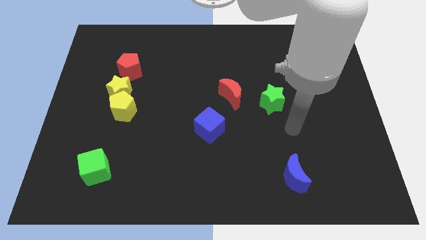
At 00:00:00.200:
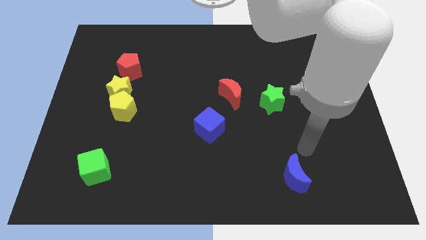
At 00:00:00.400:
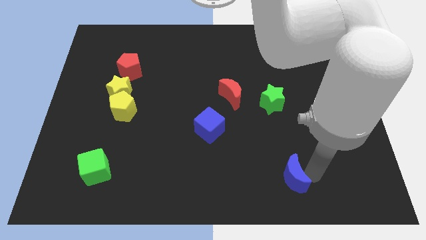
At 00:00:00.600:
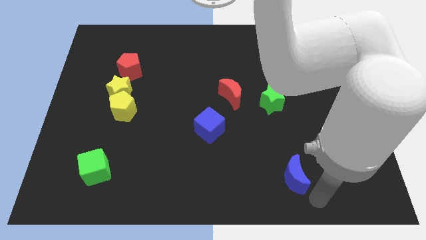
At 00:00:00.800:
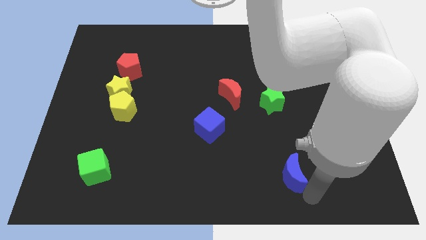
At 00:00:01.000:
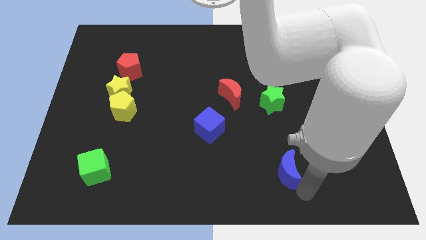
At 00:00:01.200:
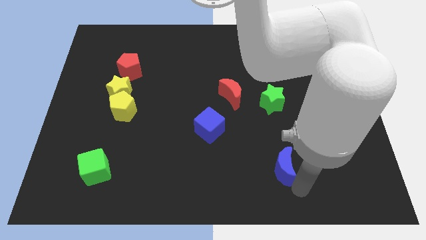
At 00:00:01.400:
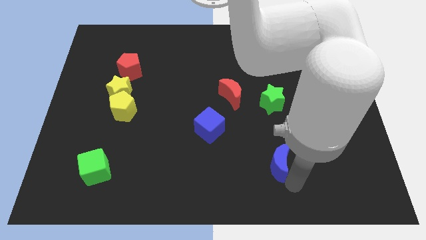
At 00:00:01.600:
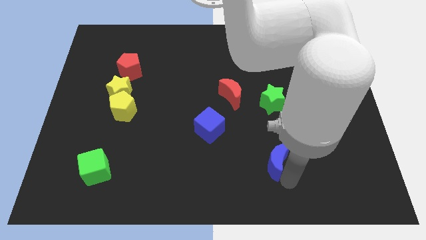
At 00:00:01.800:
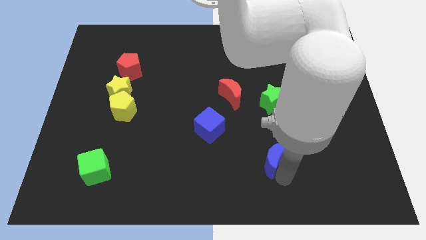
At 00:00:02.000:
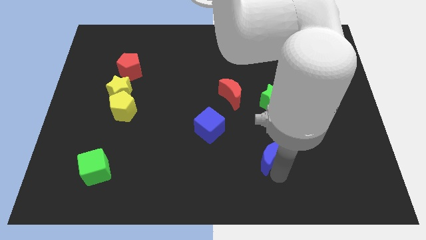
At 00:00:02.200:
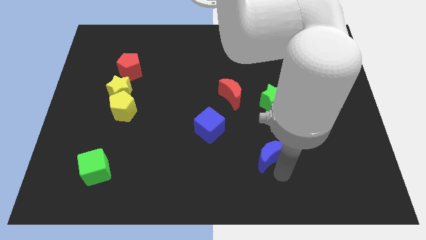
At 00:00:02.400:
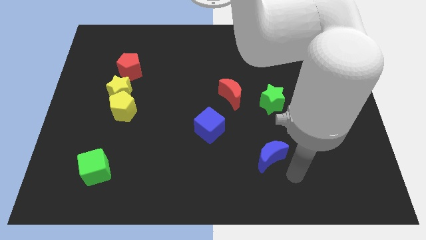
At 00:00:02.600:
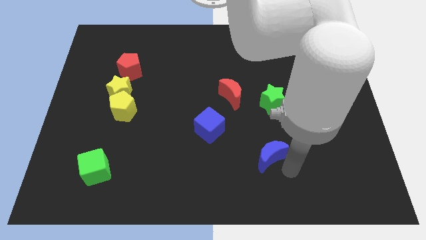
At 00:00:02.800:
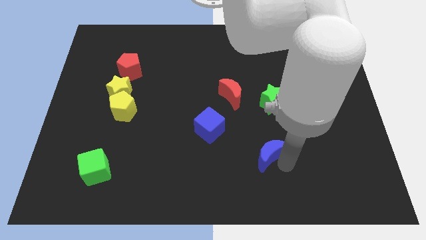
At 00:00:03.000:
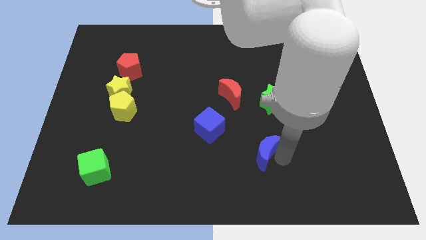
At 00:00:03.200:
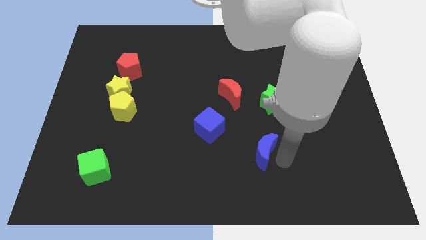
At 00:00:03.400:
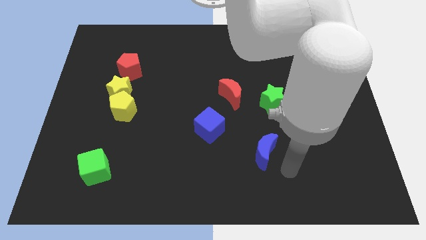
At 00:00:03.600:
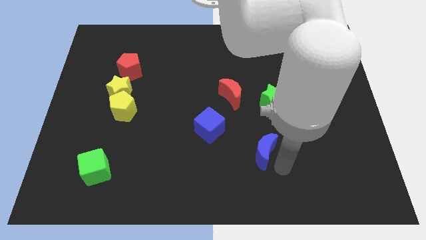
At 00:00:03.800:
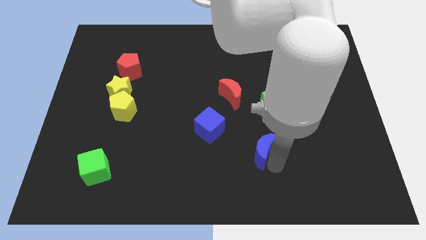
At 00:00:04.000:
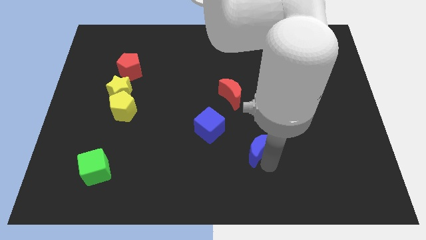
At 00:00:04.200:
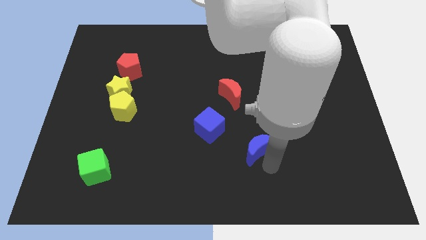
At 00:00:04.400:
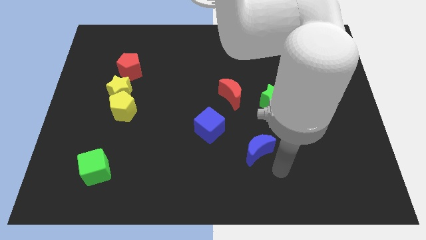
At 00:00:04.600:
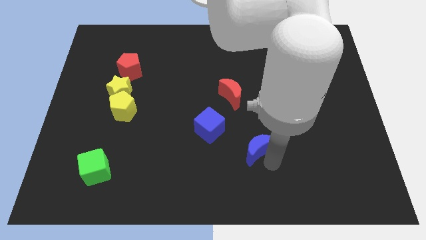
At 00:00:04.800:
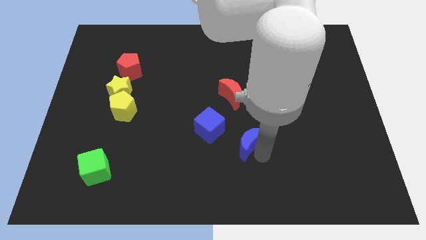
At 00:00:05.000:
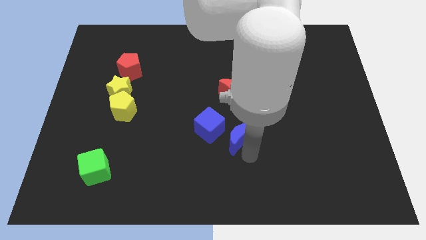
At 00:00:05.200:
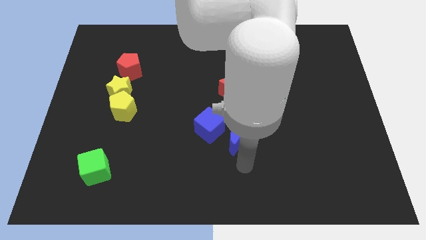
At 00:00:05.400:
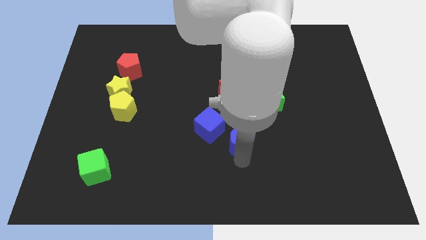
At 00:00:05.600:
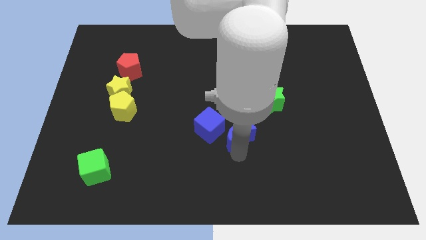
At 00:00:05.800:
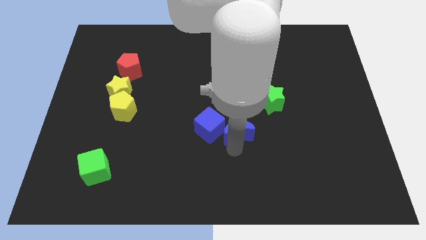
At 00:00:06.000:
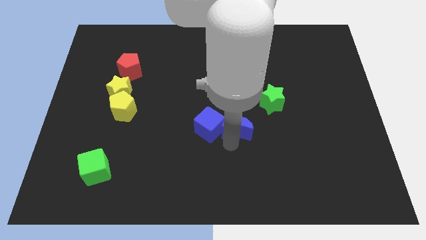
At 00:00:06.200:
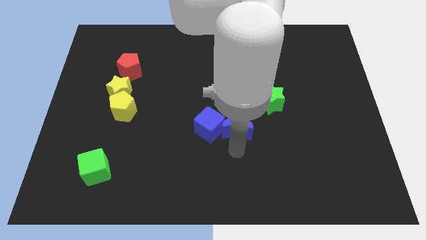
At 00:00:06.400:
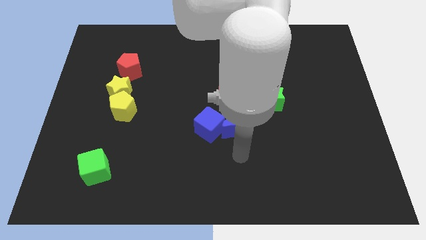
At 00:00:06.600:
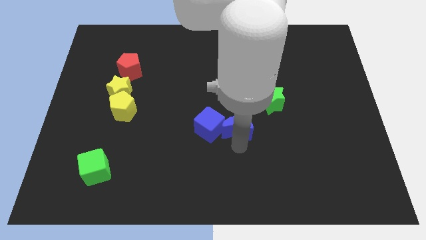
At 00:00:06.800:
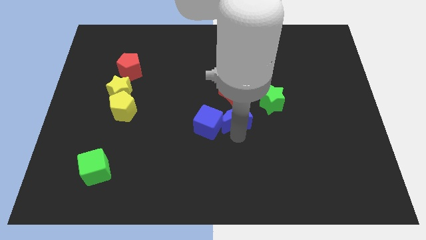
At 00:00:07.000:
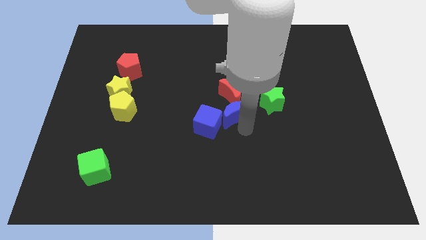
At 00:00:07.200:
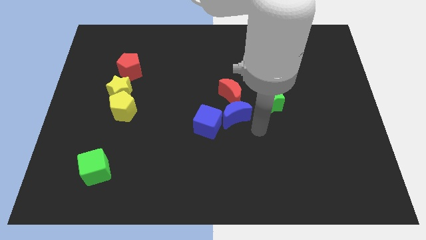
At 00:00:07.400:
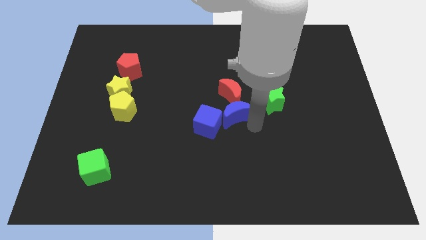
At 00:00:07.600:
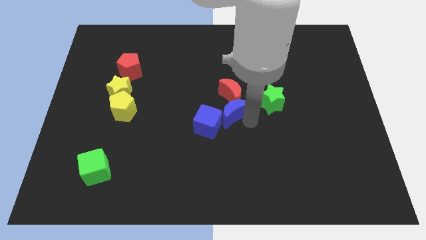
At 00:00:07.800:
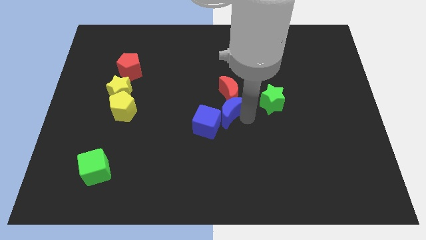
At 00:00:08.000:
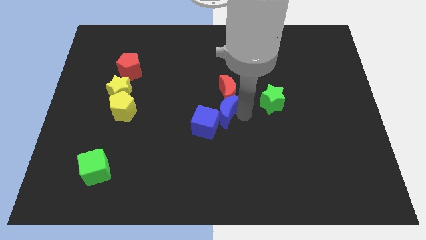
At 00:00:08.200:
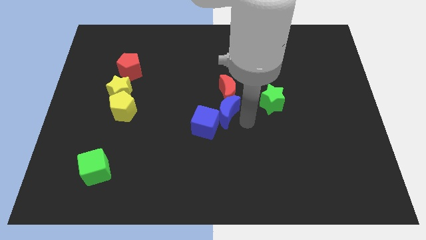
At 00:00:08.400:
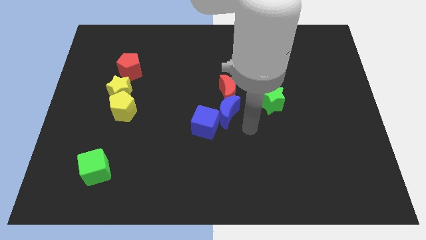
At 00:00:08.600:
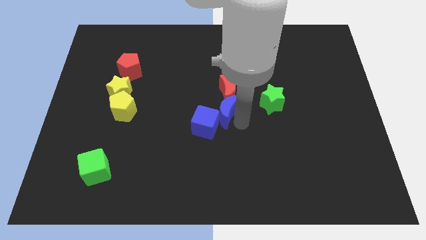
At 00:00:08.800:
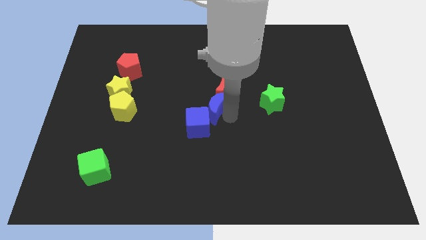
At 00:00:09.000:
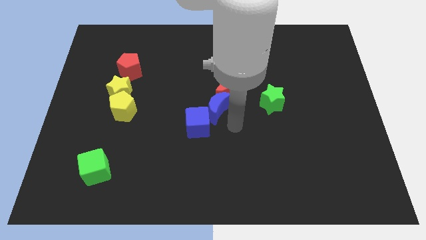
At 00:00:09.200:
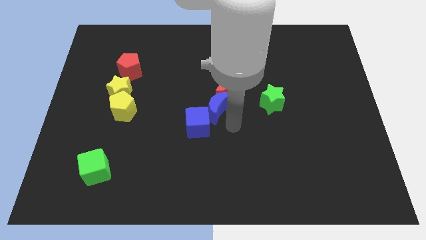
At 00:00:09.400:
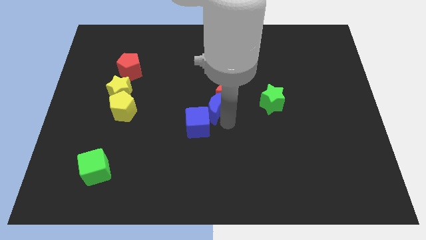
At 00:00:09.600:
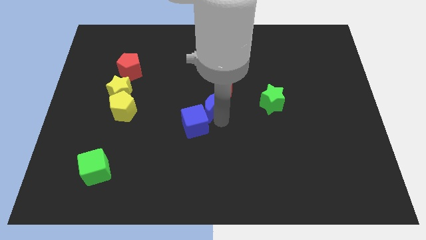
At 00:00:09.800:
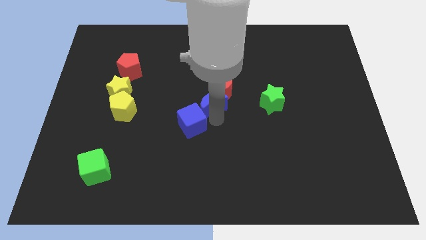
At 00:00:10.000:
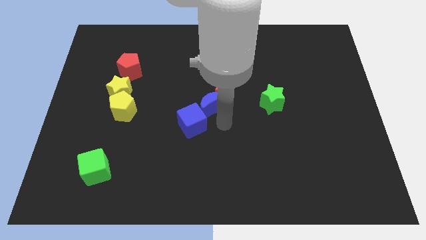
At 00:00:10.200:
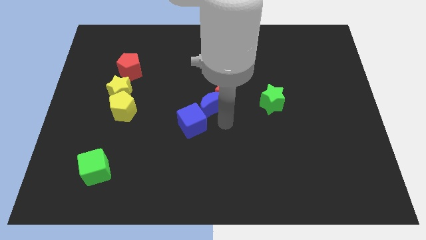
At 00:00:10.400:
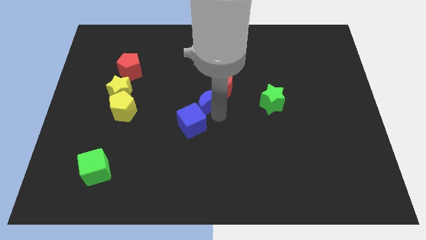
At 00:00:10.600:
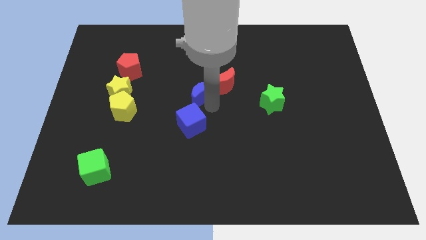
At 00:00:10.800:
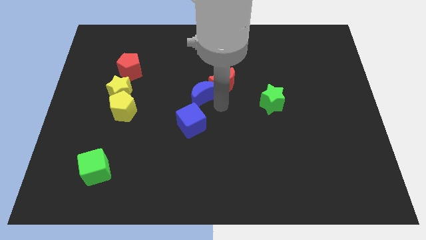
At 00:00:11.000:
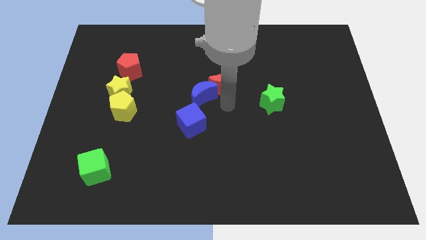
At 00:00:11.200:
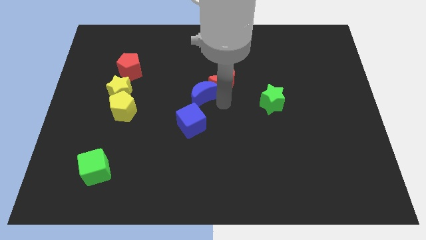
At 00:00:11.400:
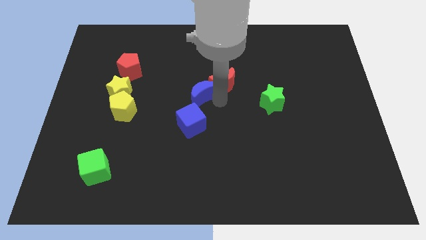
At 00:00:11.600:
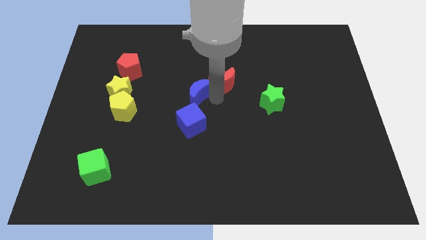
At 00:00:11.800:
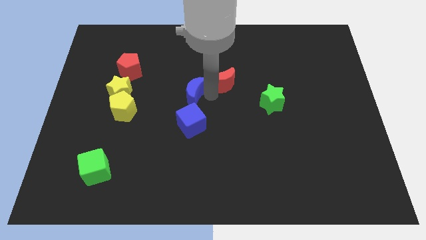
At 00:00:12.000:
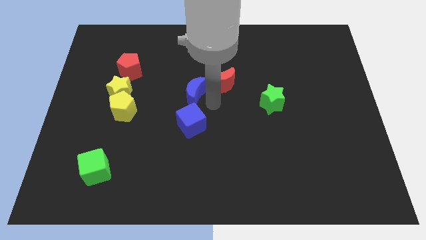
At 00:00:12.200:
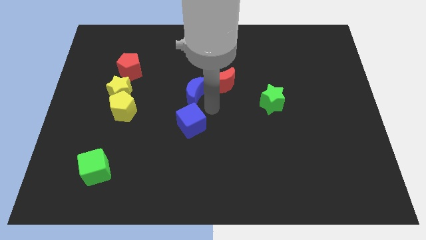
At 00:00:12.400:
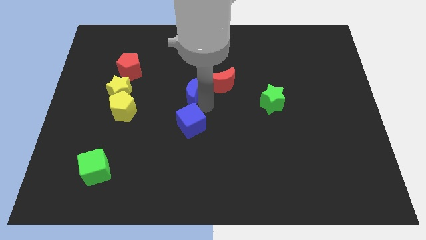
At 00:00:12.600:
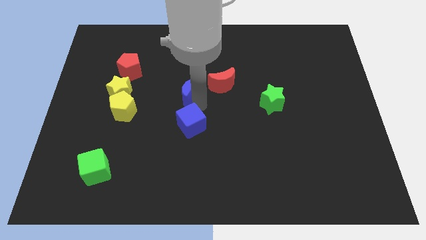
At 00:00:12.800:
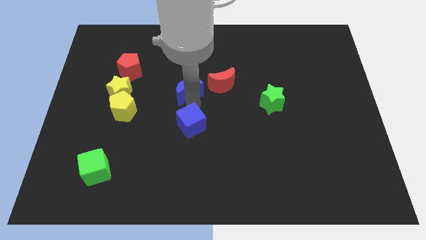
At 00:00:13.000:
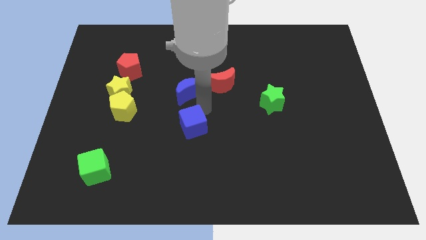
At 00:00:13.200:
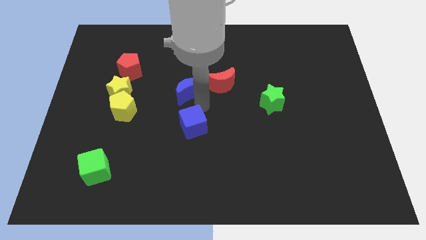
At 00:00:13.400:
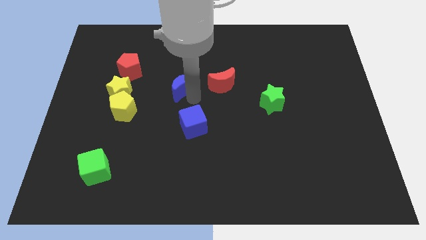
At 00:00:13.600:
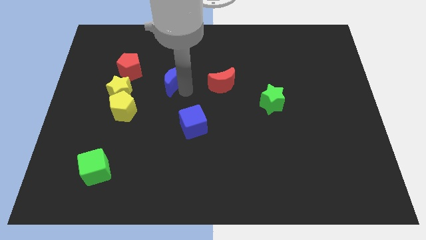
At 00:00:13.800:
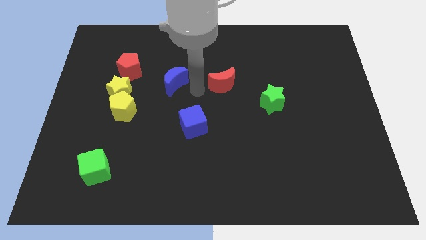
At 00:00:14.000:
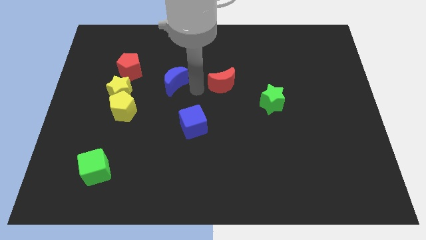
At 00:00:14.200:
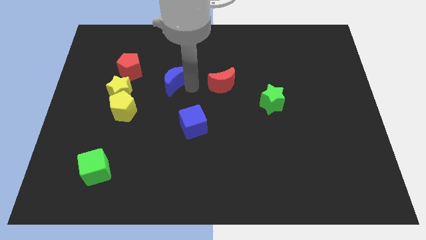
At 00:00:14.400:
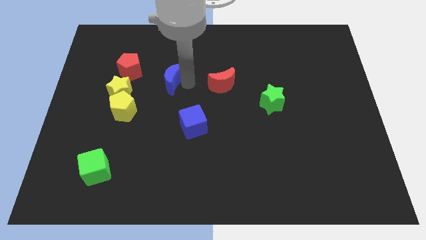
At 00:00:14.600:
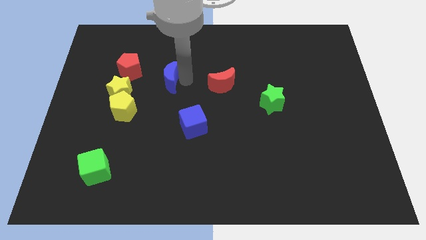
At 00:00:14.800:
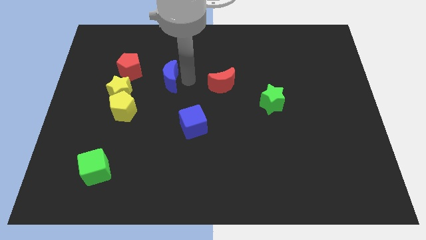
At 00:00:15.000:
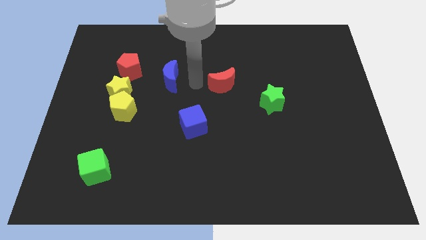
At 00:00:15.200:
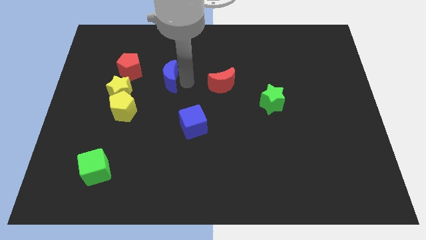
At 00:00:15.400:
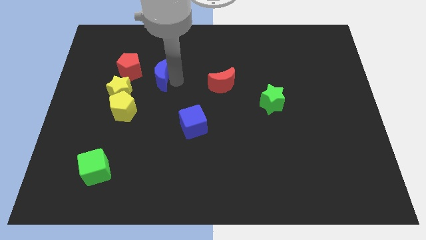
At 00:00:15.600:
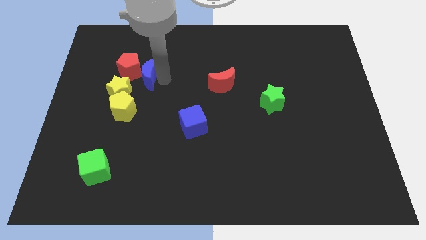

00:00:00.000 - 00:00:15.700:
move the blue moon to the red pentagon
